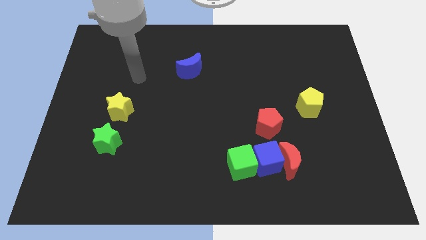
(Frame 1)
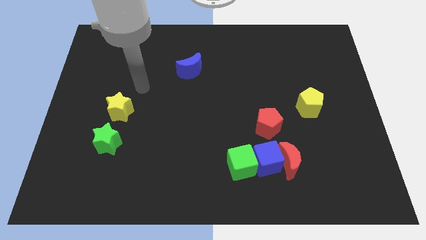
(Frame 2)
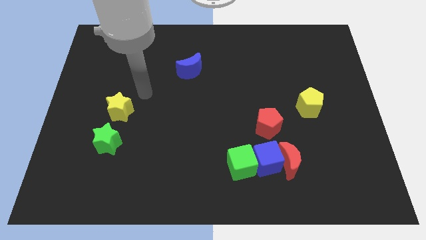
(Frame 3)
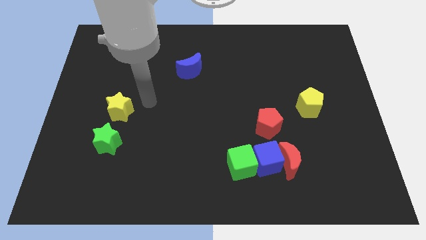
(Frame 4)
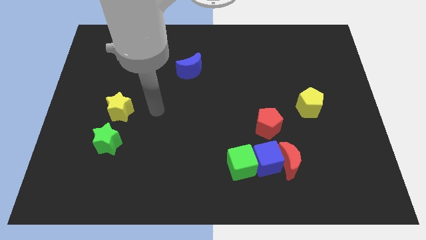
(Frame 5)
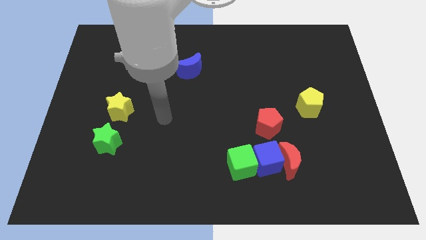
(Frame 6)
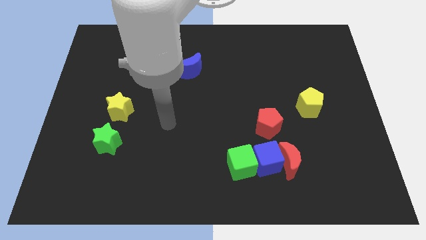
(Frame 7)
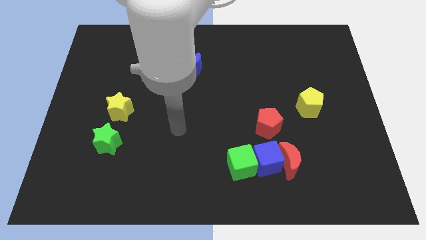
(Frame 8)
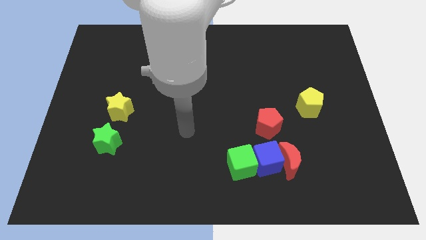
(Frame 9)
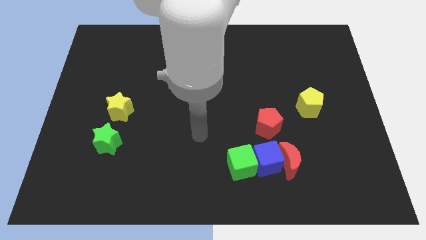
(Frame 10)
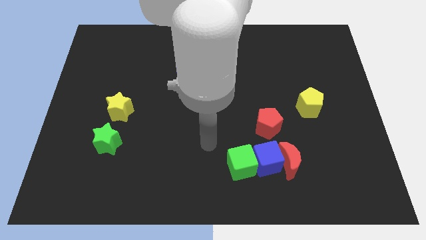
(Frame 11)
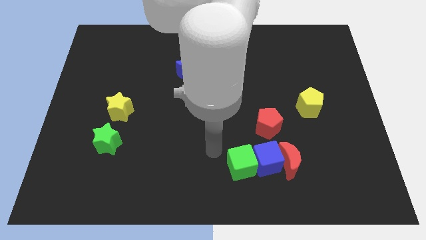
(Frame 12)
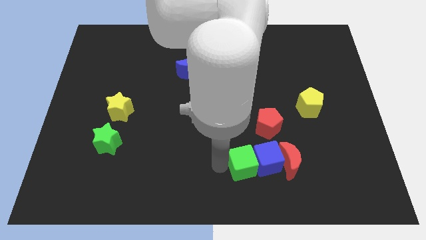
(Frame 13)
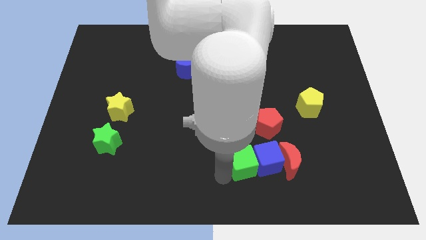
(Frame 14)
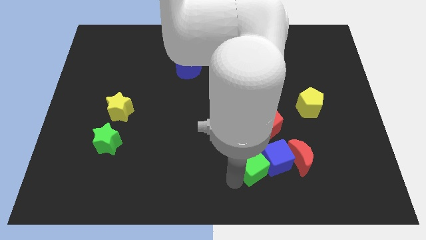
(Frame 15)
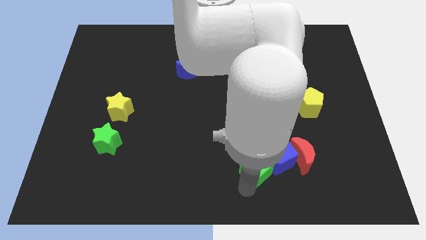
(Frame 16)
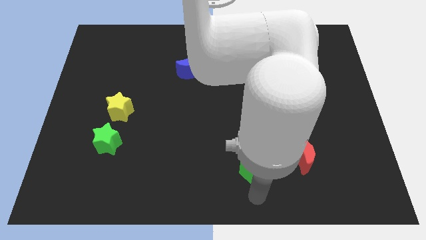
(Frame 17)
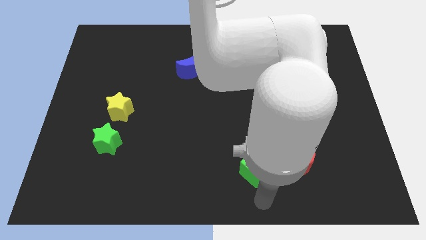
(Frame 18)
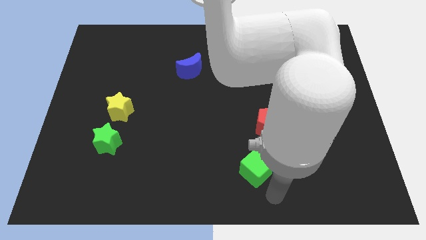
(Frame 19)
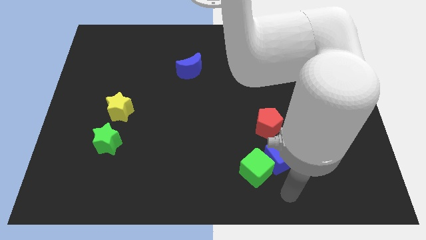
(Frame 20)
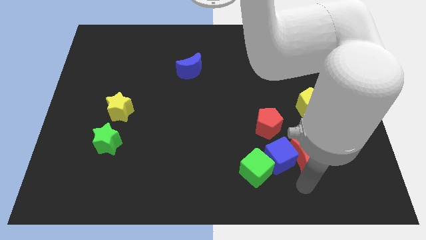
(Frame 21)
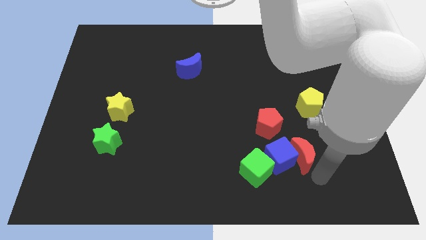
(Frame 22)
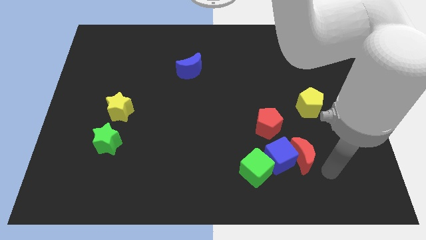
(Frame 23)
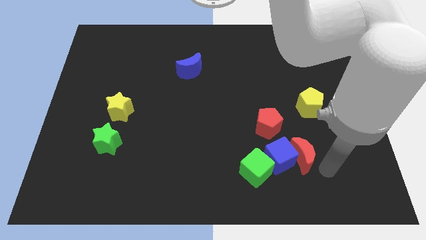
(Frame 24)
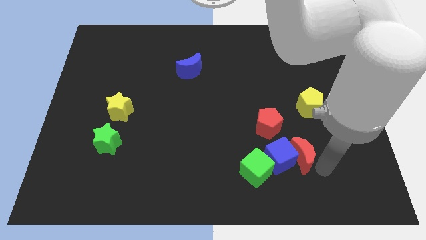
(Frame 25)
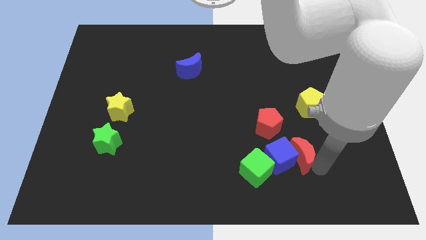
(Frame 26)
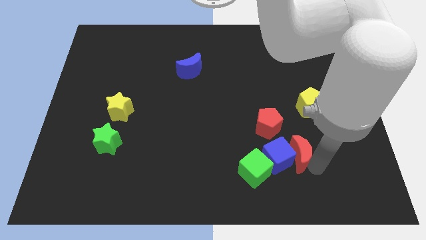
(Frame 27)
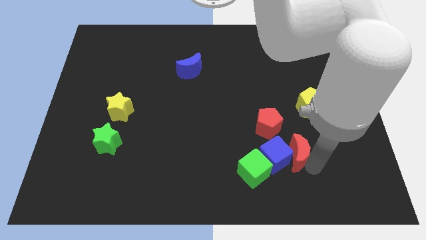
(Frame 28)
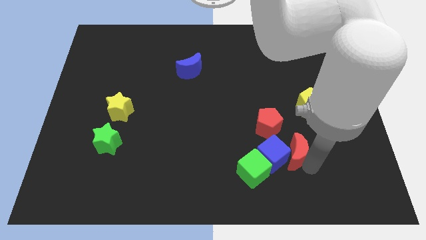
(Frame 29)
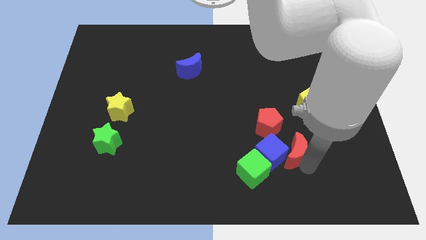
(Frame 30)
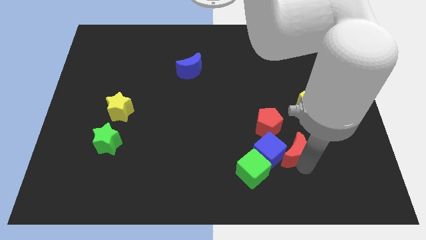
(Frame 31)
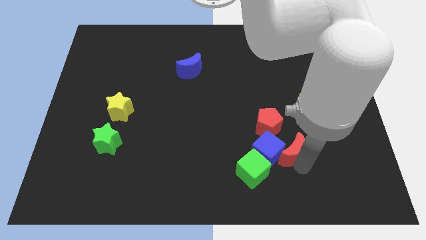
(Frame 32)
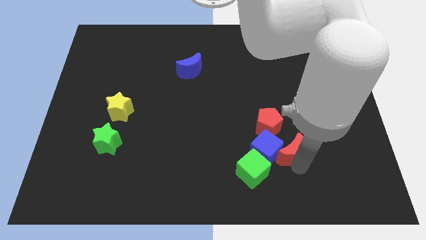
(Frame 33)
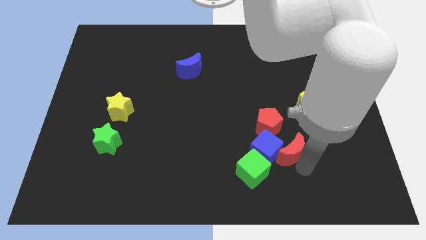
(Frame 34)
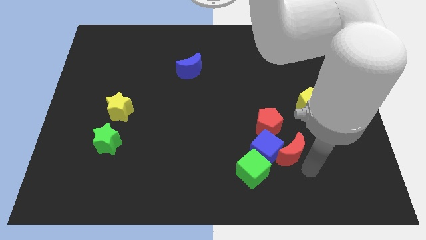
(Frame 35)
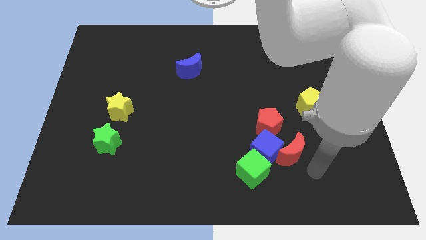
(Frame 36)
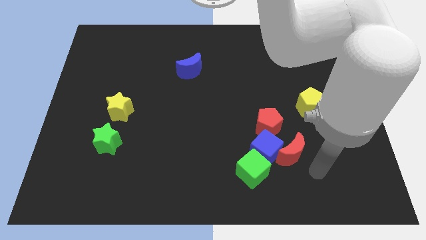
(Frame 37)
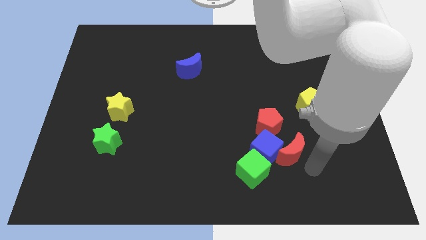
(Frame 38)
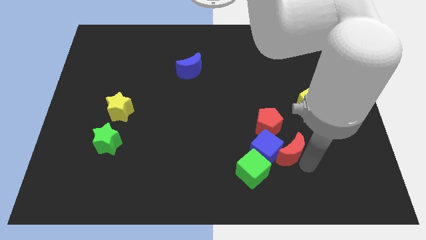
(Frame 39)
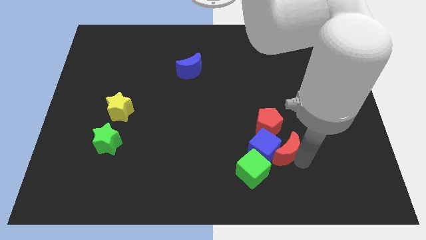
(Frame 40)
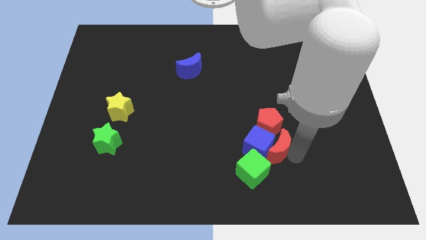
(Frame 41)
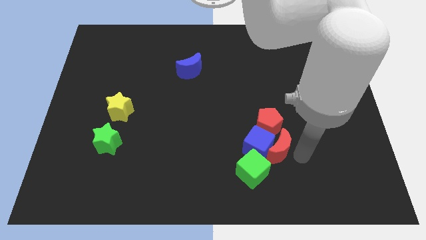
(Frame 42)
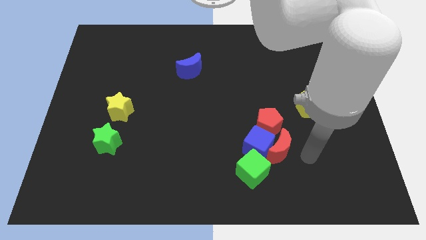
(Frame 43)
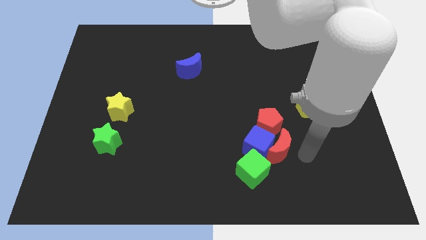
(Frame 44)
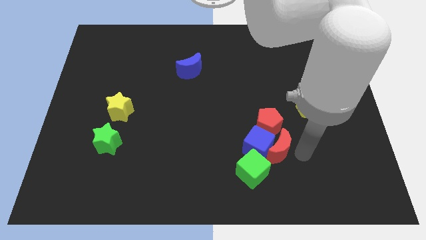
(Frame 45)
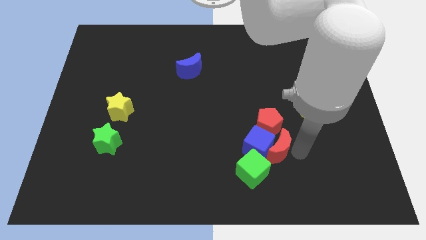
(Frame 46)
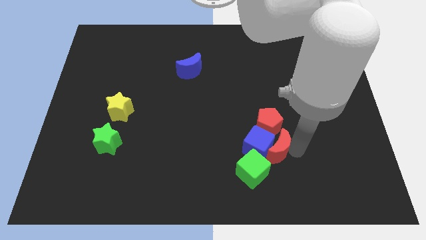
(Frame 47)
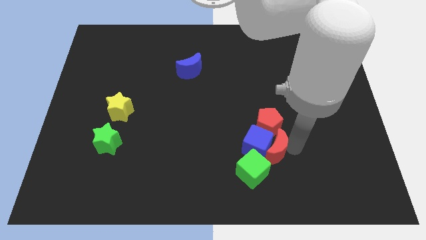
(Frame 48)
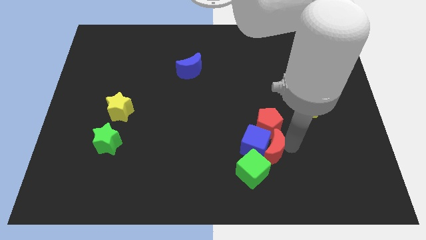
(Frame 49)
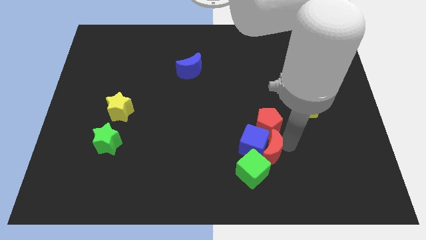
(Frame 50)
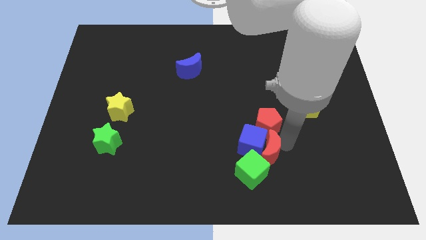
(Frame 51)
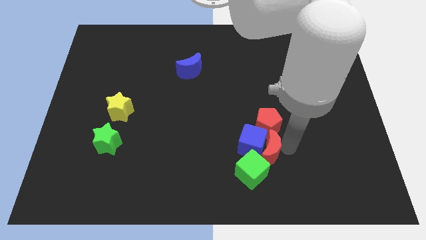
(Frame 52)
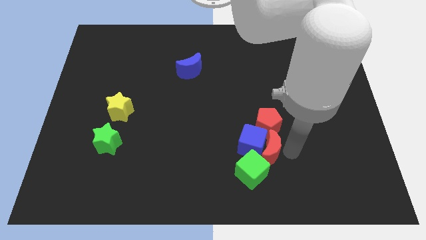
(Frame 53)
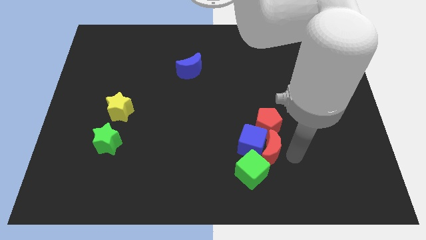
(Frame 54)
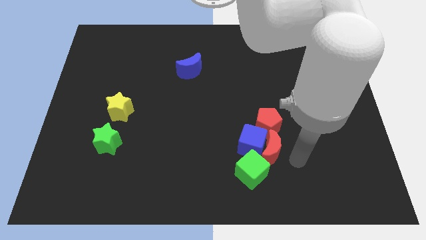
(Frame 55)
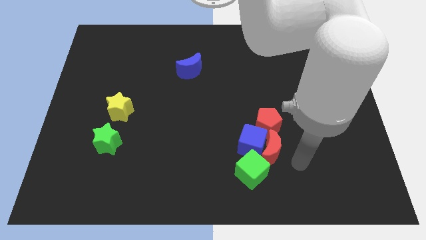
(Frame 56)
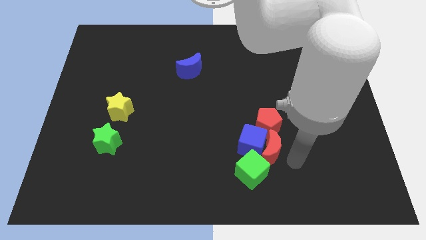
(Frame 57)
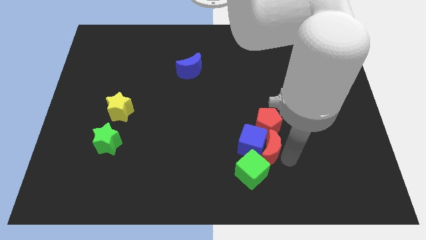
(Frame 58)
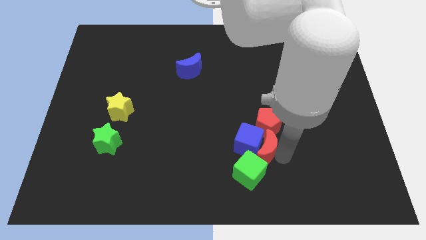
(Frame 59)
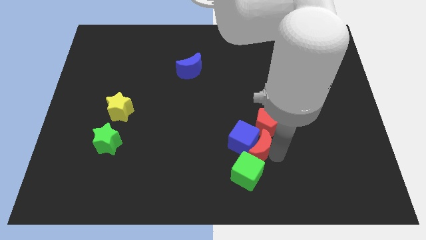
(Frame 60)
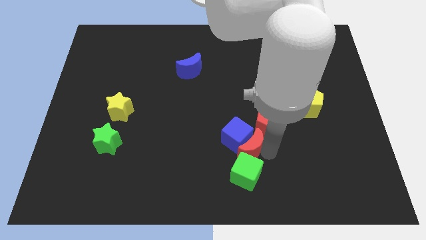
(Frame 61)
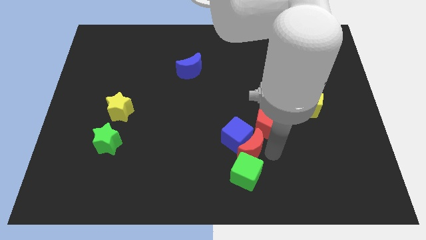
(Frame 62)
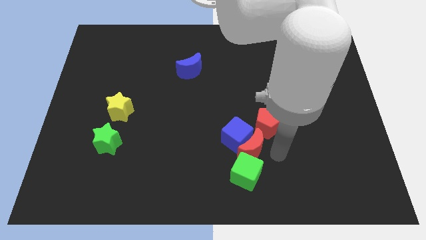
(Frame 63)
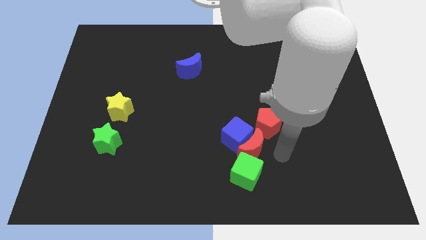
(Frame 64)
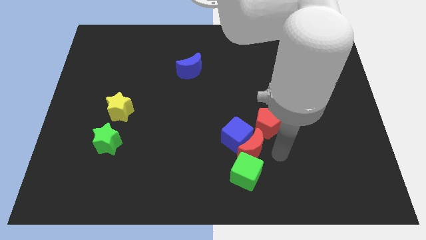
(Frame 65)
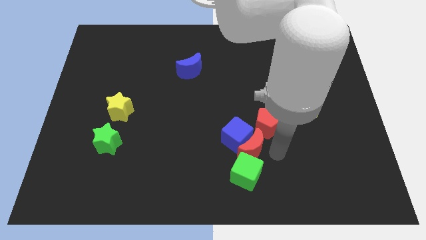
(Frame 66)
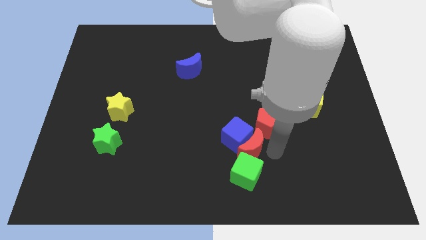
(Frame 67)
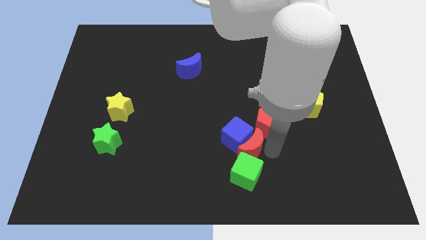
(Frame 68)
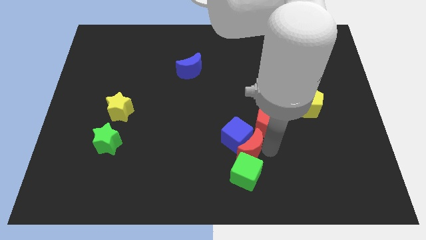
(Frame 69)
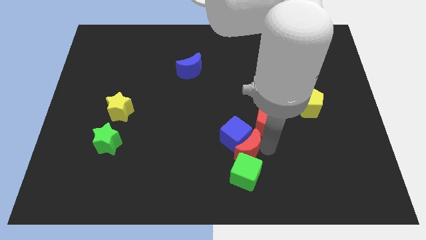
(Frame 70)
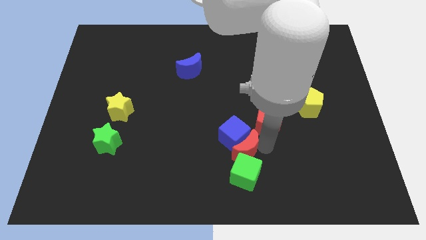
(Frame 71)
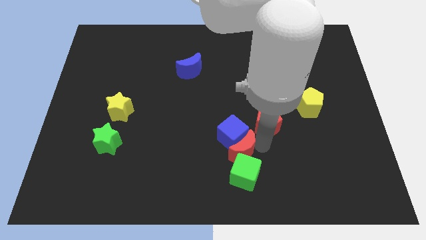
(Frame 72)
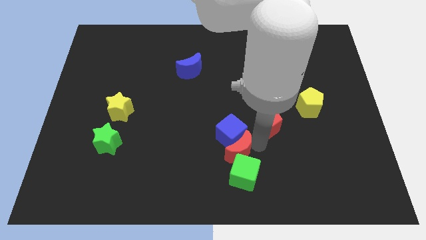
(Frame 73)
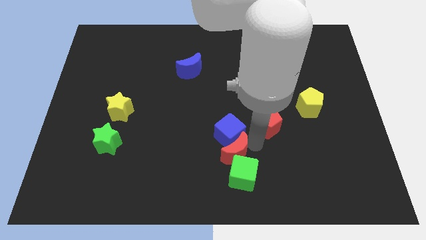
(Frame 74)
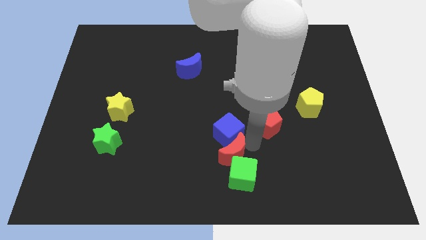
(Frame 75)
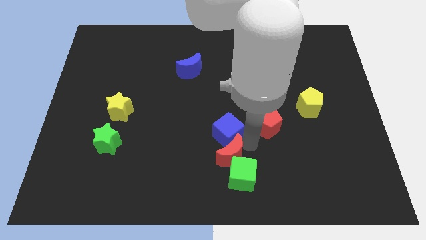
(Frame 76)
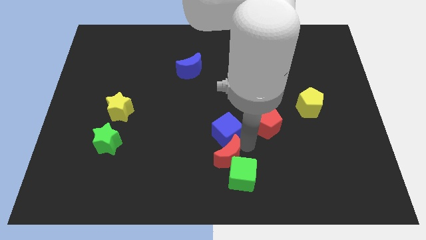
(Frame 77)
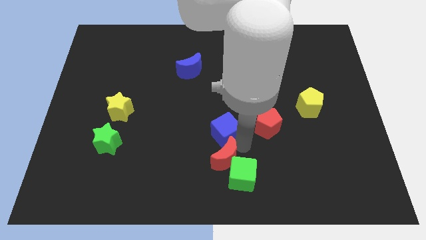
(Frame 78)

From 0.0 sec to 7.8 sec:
slide the red moon just left of the green cube
